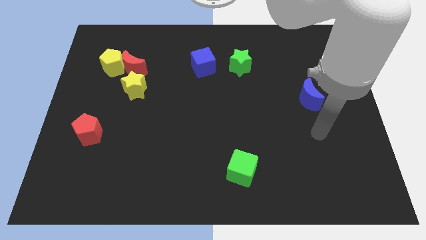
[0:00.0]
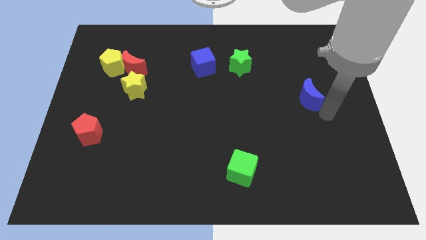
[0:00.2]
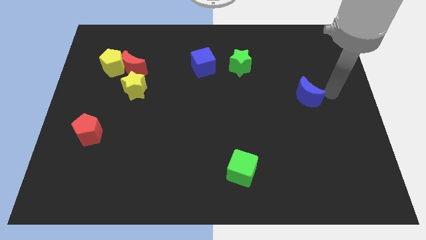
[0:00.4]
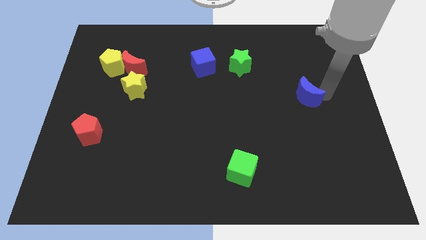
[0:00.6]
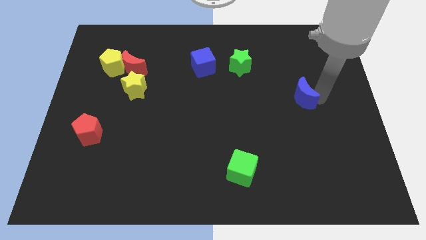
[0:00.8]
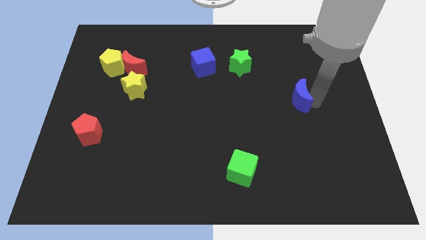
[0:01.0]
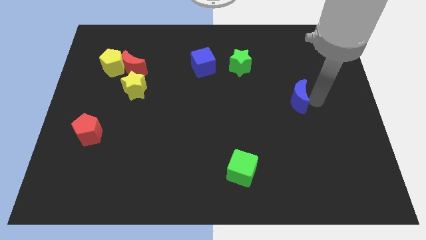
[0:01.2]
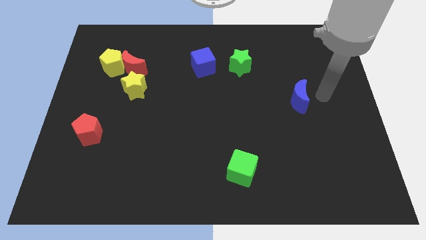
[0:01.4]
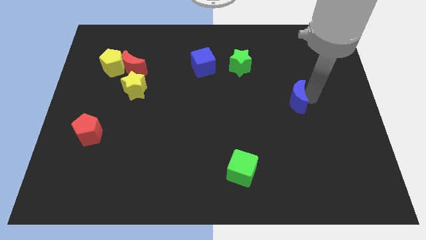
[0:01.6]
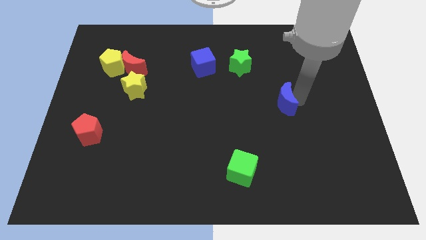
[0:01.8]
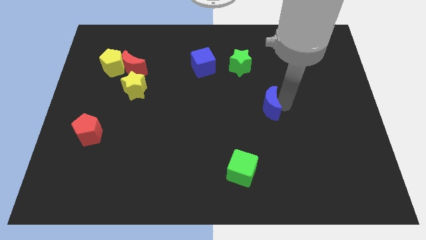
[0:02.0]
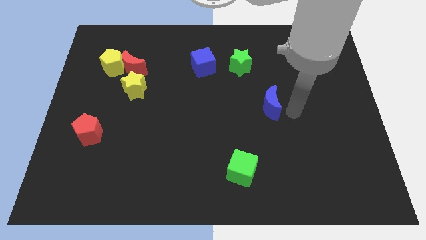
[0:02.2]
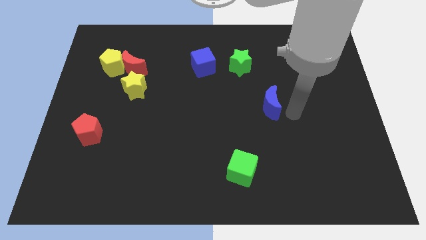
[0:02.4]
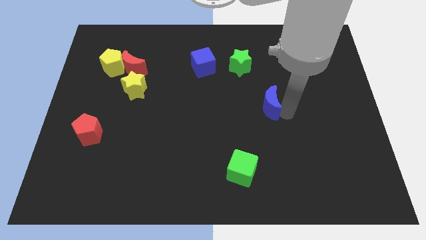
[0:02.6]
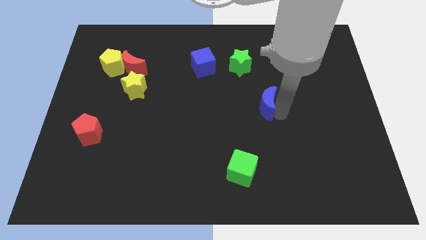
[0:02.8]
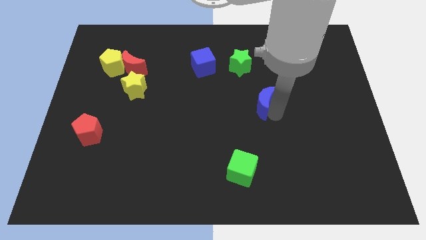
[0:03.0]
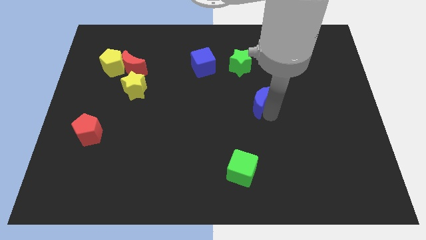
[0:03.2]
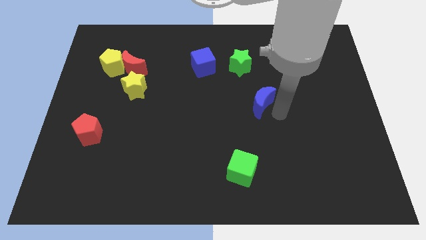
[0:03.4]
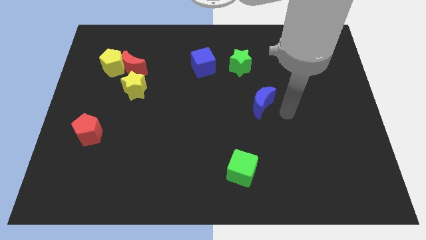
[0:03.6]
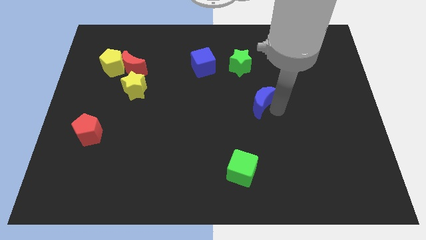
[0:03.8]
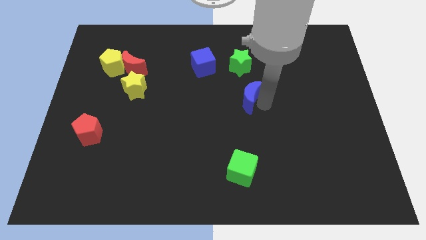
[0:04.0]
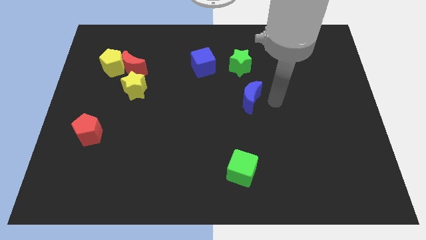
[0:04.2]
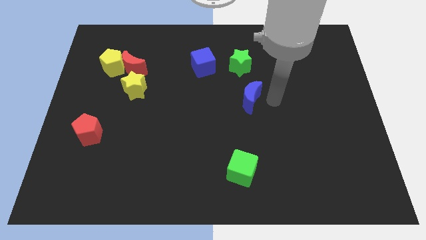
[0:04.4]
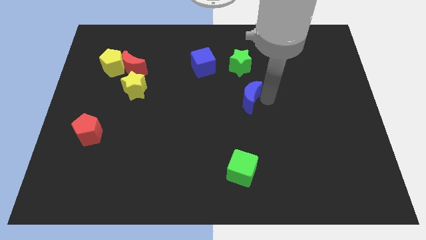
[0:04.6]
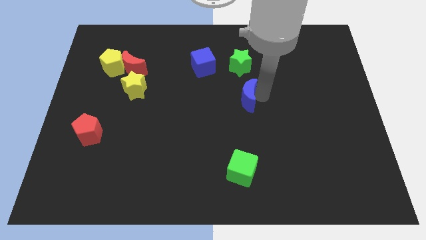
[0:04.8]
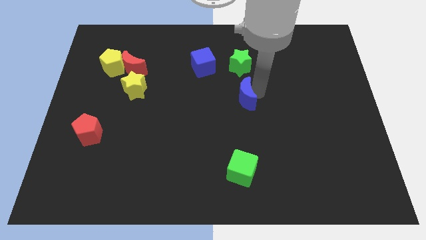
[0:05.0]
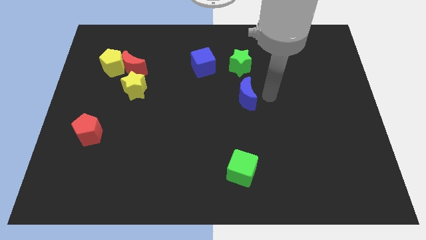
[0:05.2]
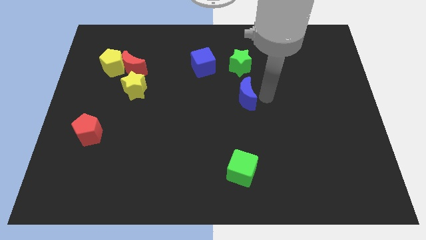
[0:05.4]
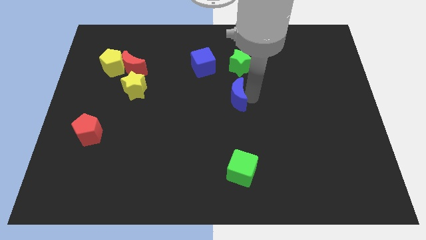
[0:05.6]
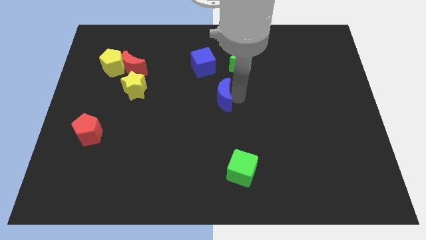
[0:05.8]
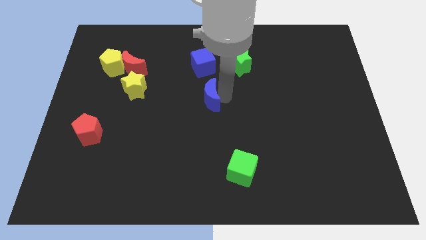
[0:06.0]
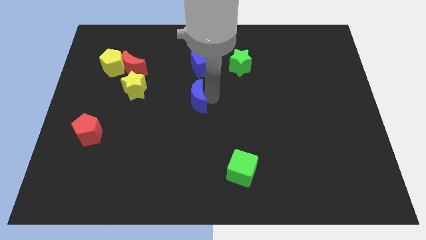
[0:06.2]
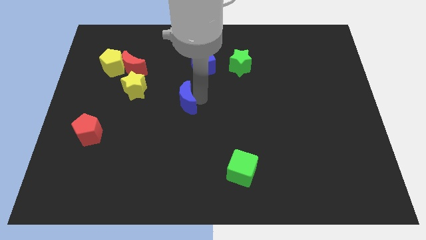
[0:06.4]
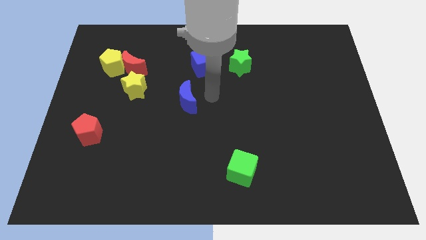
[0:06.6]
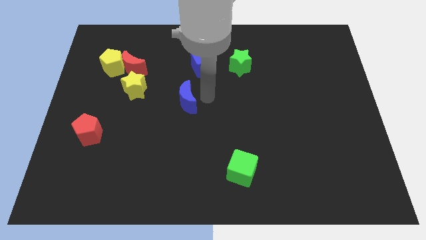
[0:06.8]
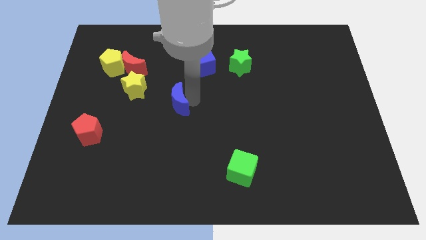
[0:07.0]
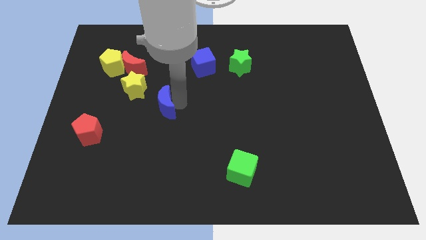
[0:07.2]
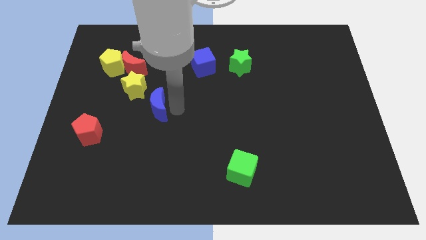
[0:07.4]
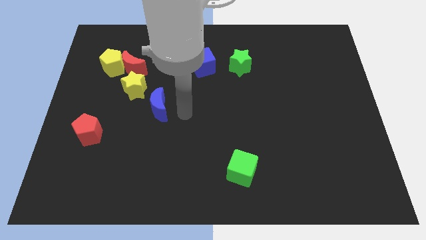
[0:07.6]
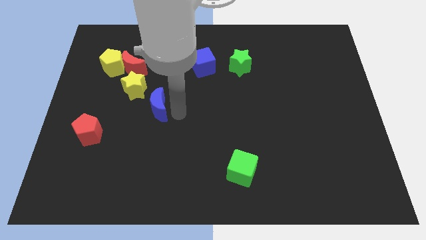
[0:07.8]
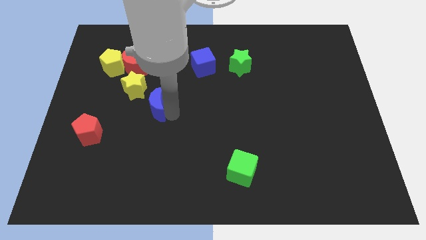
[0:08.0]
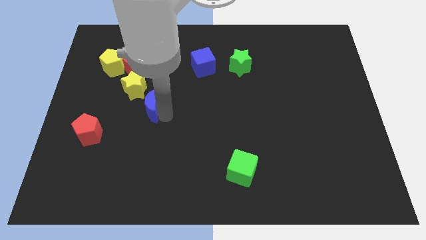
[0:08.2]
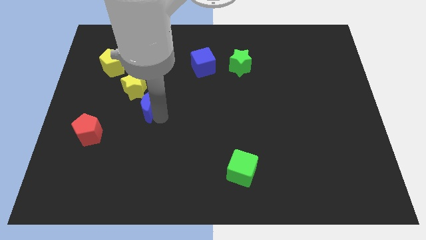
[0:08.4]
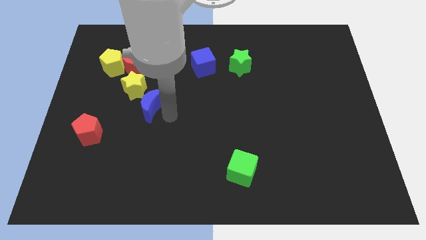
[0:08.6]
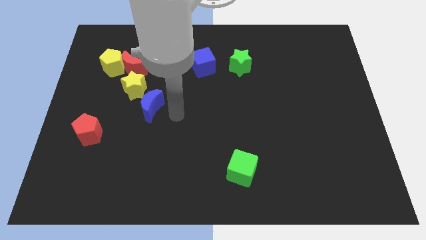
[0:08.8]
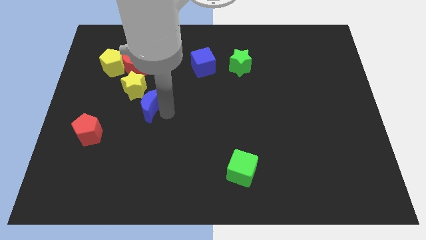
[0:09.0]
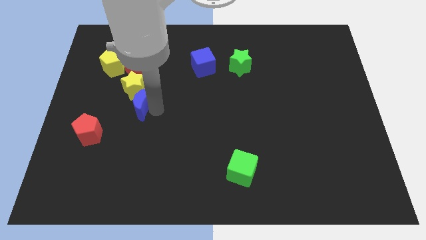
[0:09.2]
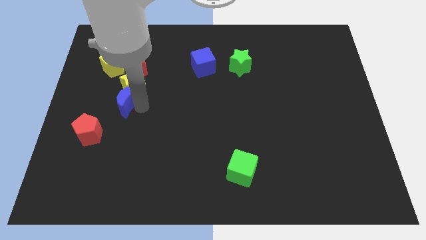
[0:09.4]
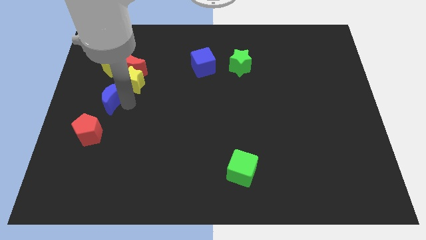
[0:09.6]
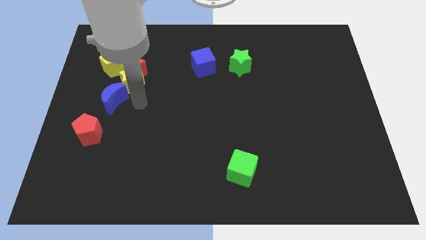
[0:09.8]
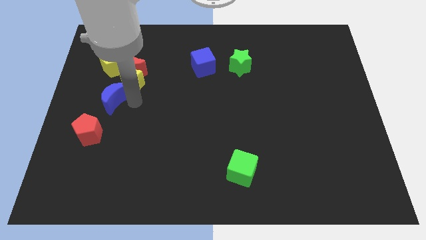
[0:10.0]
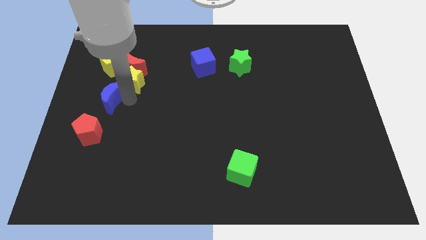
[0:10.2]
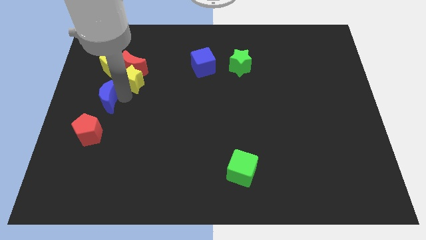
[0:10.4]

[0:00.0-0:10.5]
slide the blue moon to the left side of the board

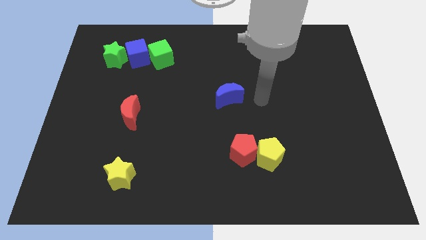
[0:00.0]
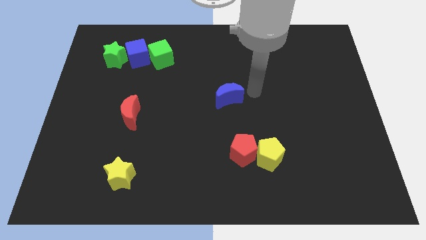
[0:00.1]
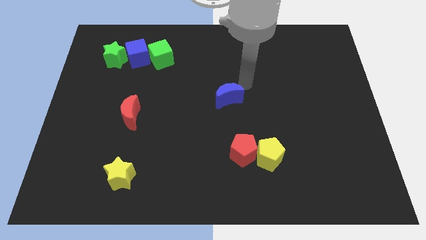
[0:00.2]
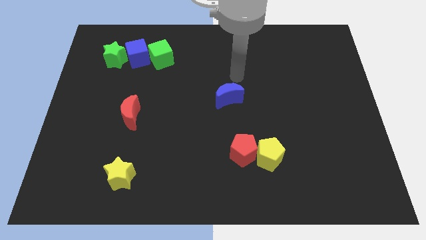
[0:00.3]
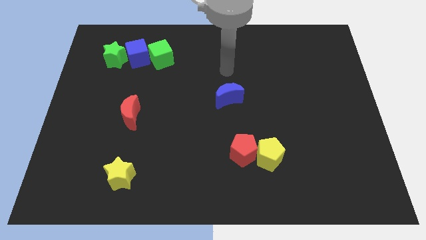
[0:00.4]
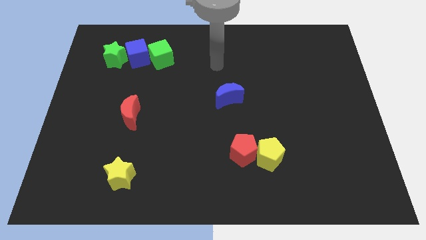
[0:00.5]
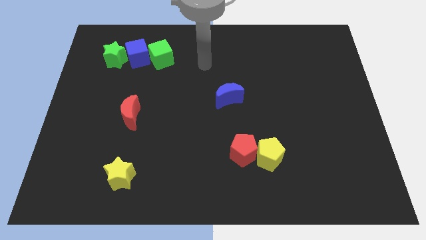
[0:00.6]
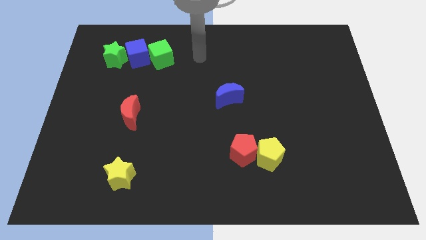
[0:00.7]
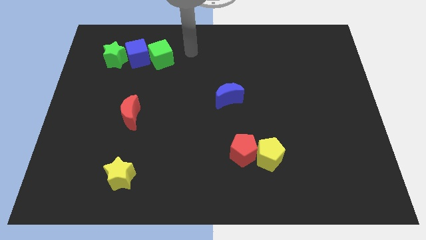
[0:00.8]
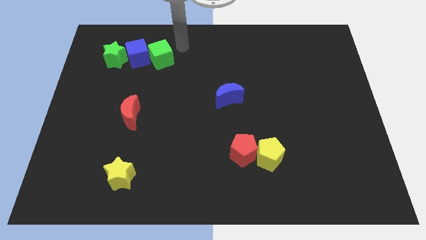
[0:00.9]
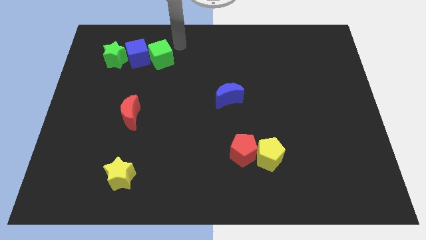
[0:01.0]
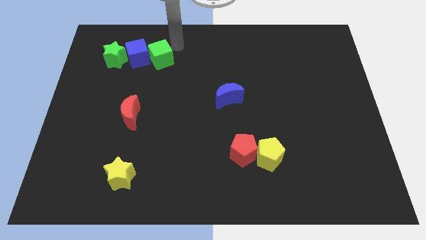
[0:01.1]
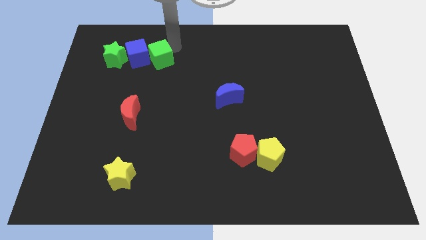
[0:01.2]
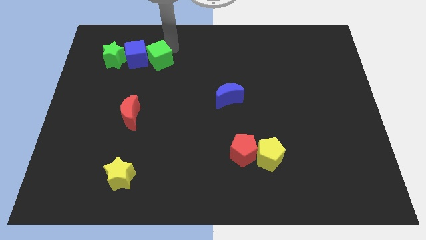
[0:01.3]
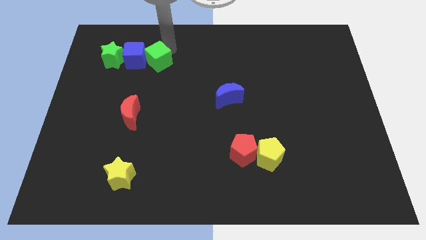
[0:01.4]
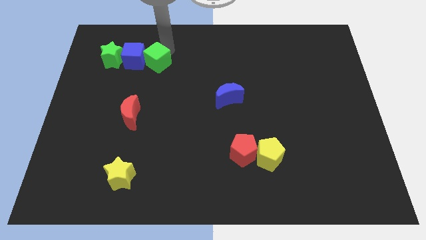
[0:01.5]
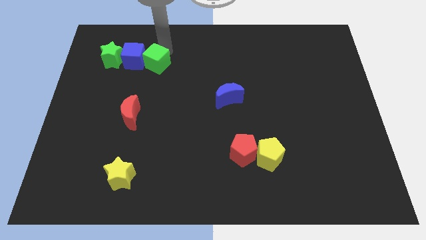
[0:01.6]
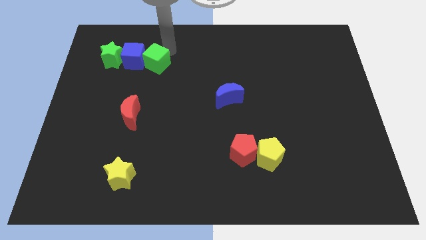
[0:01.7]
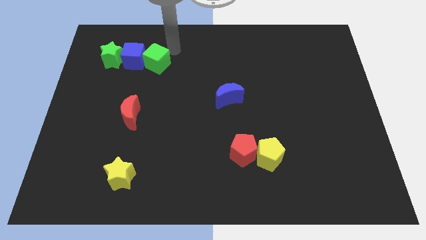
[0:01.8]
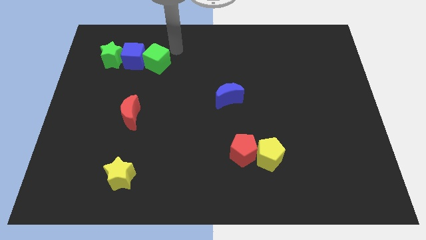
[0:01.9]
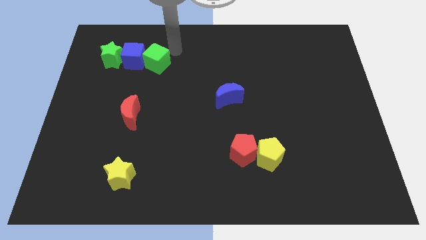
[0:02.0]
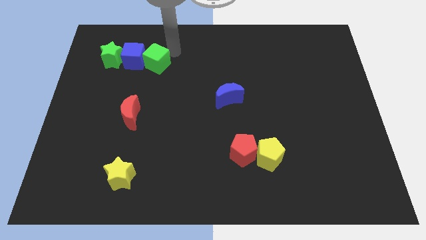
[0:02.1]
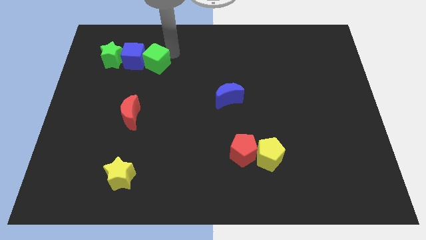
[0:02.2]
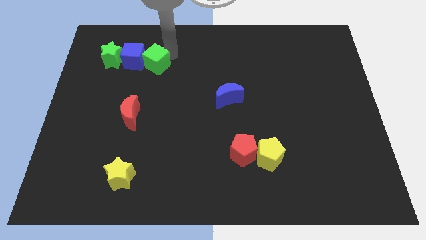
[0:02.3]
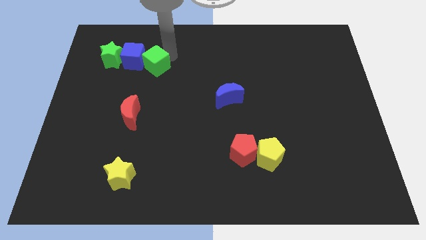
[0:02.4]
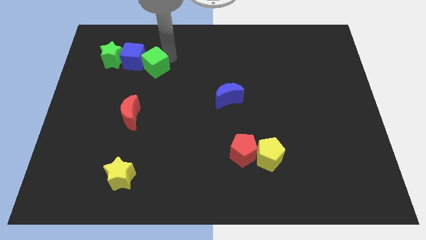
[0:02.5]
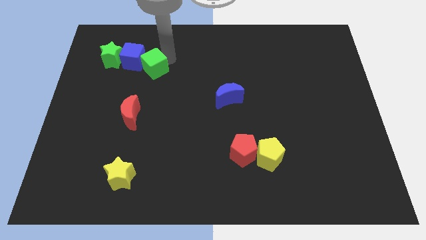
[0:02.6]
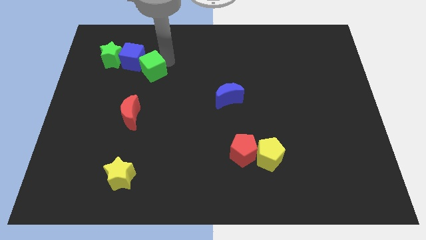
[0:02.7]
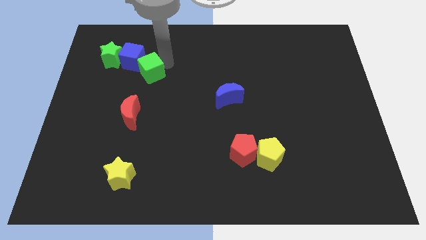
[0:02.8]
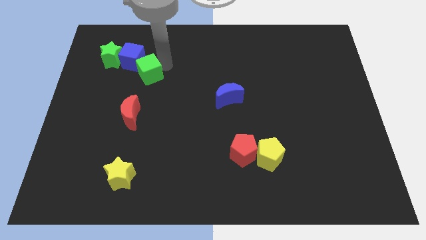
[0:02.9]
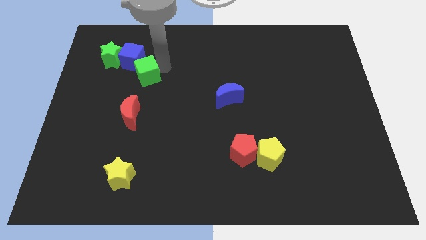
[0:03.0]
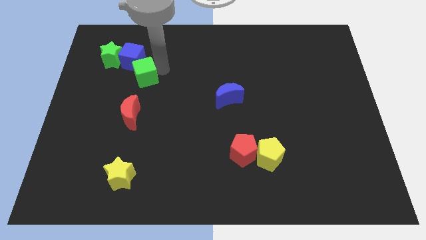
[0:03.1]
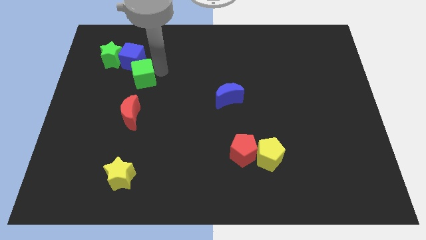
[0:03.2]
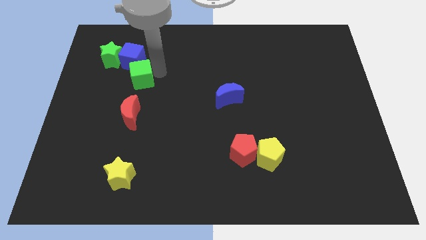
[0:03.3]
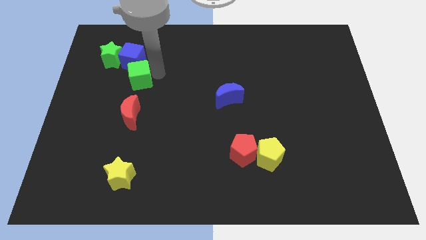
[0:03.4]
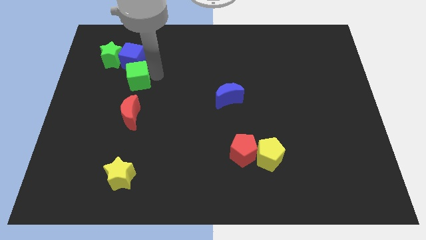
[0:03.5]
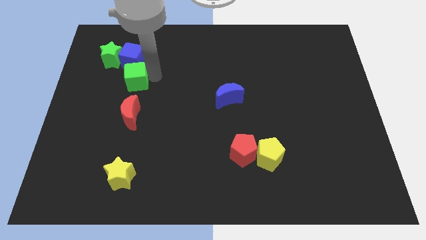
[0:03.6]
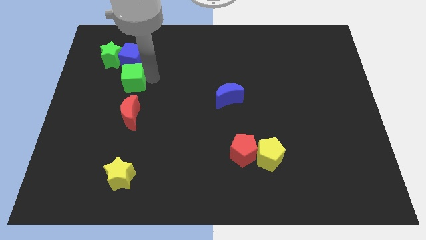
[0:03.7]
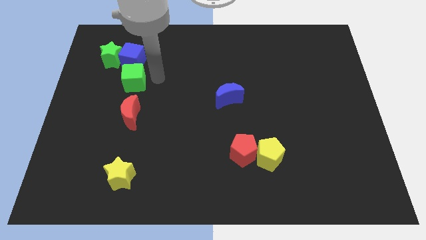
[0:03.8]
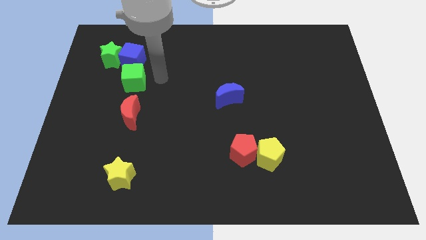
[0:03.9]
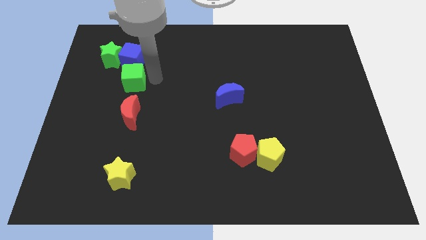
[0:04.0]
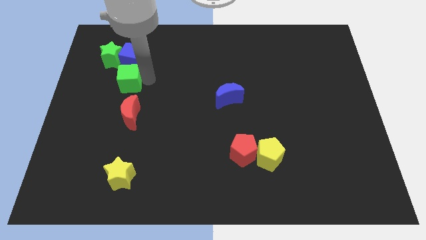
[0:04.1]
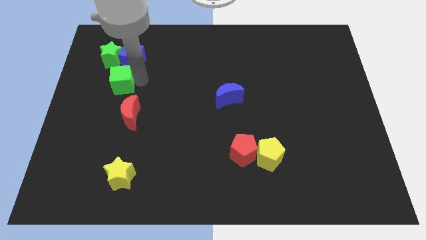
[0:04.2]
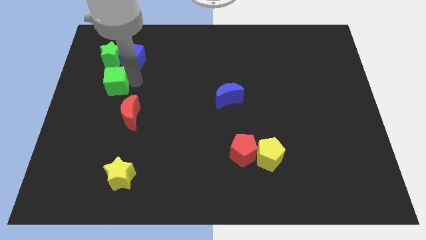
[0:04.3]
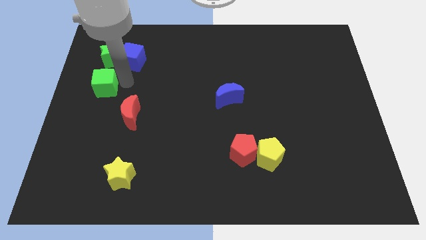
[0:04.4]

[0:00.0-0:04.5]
slide the green cube to the left side of the board
